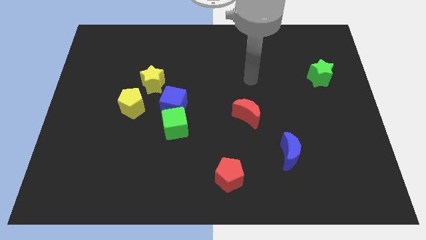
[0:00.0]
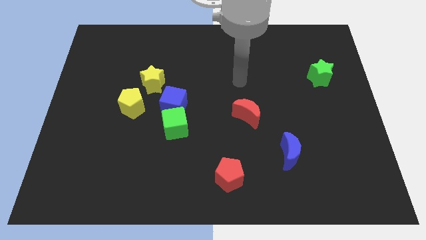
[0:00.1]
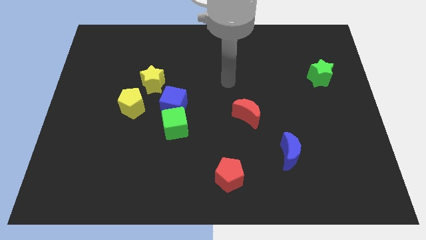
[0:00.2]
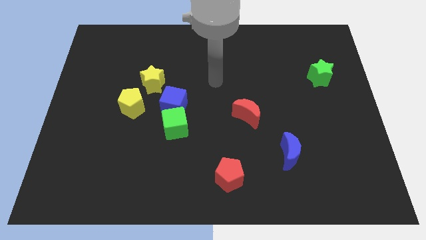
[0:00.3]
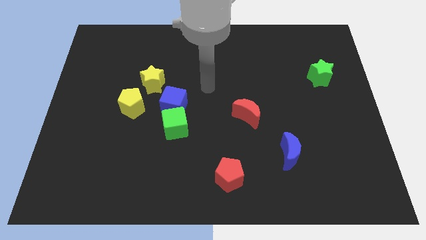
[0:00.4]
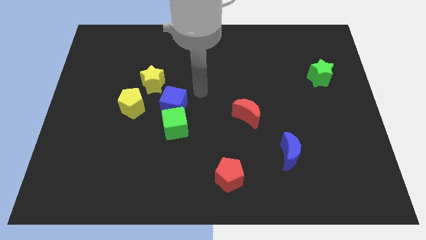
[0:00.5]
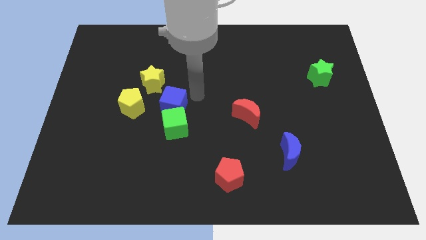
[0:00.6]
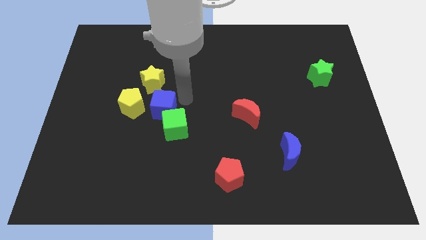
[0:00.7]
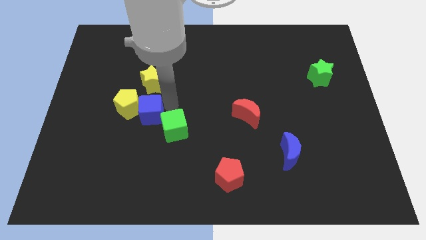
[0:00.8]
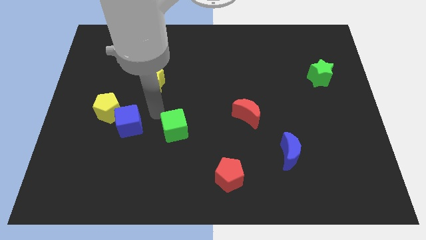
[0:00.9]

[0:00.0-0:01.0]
pull the green cube apart from the blue cube

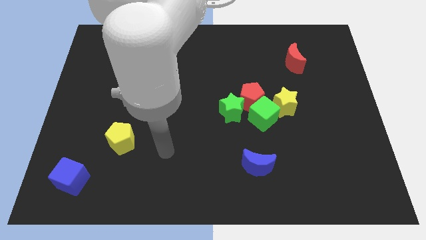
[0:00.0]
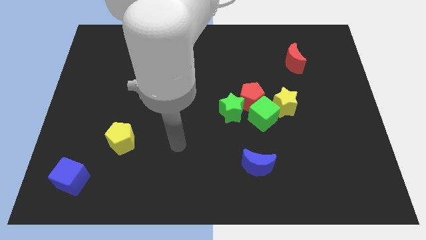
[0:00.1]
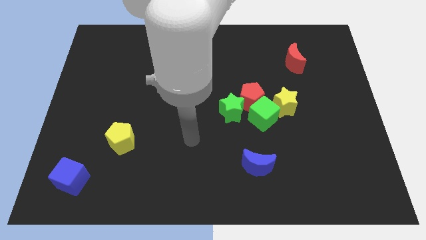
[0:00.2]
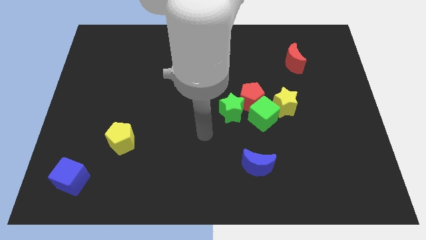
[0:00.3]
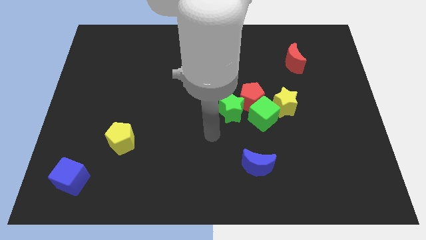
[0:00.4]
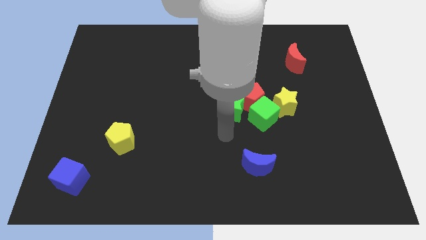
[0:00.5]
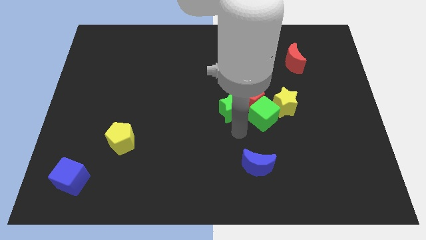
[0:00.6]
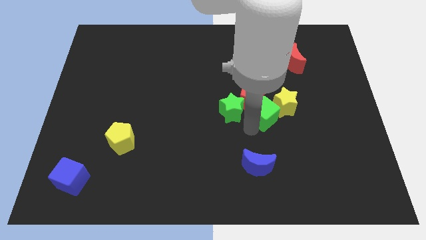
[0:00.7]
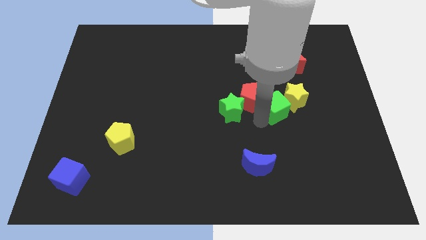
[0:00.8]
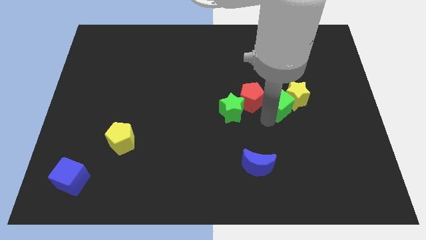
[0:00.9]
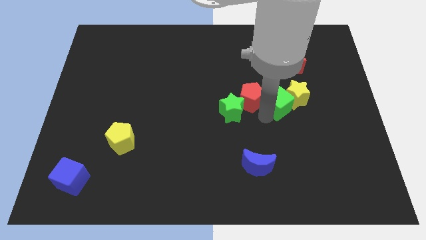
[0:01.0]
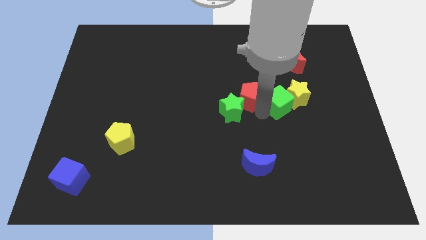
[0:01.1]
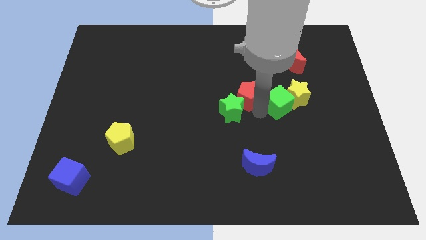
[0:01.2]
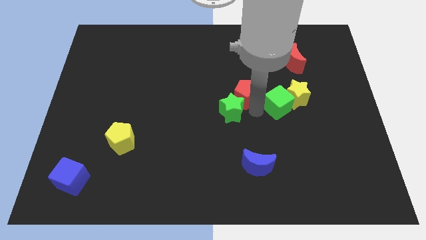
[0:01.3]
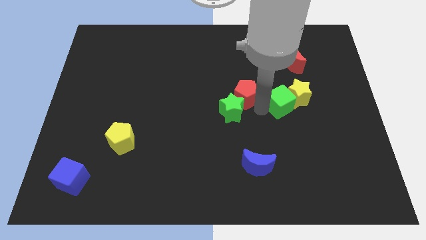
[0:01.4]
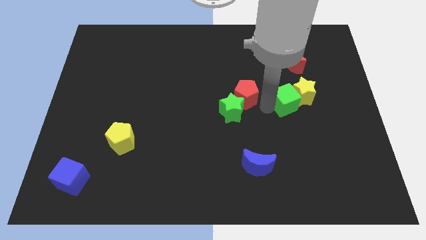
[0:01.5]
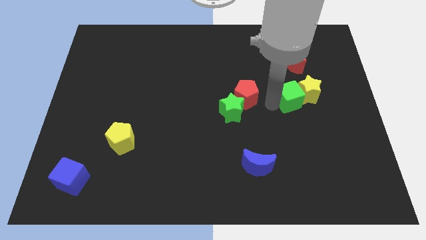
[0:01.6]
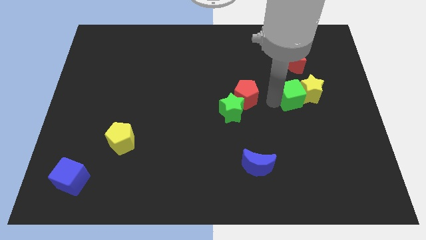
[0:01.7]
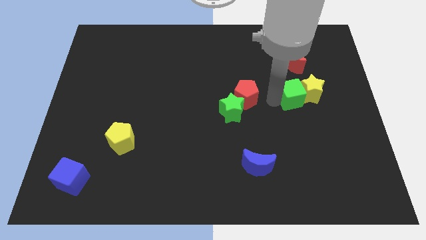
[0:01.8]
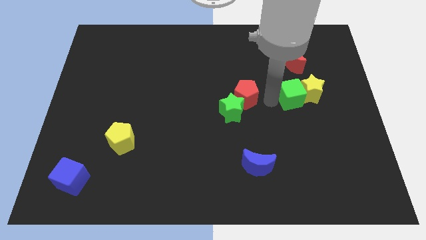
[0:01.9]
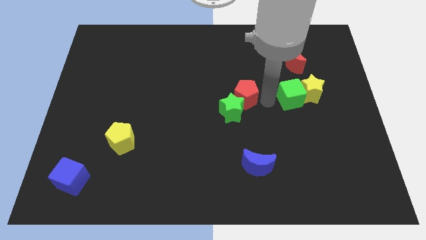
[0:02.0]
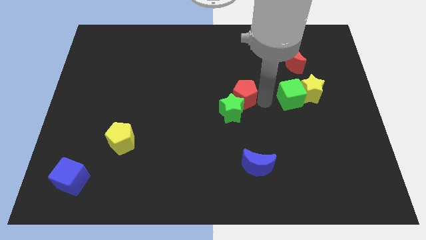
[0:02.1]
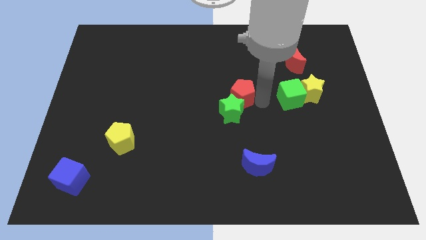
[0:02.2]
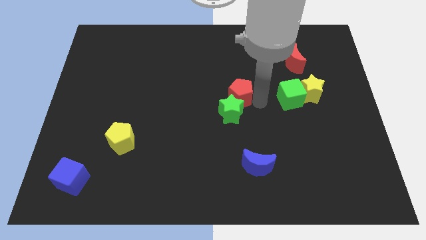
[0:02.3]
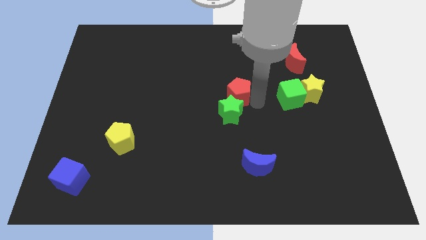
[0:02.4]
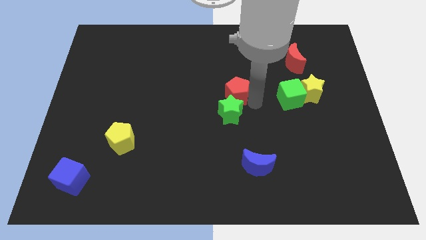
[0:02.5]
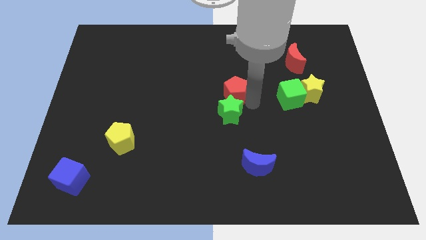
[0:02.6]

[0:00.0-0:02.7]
pull the red pentagon apart from the group of blocks

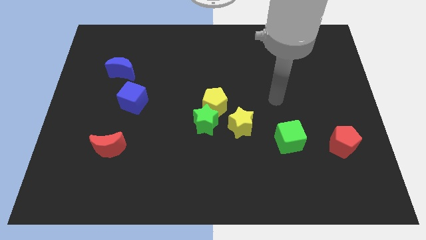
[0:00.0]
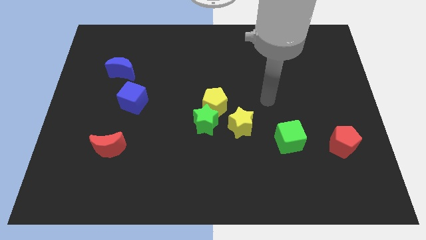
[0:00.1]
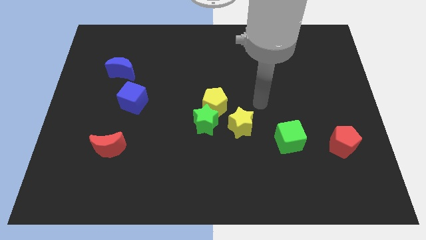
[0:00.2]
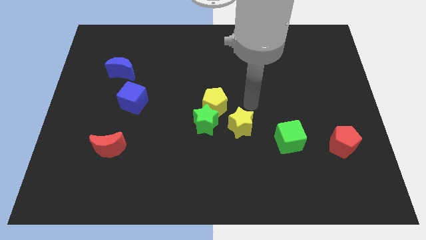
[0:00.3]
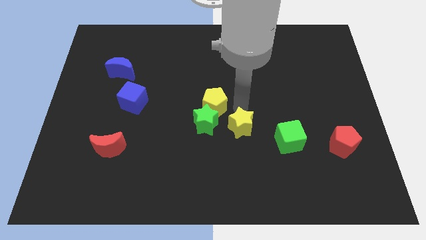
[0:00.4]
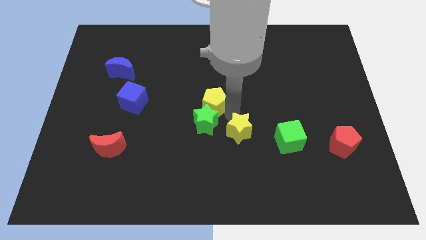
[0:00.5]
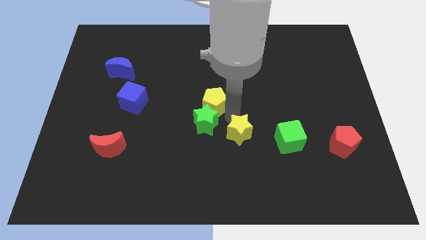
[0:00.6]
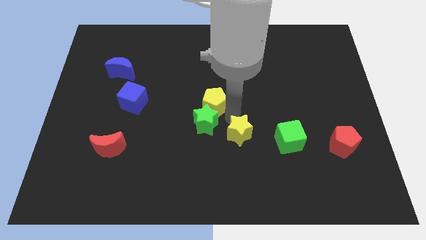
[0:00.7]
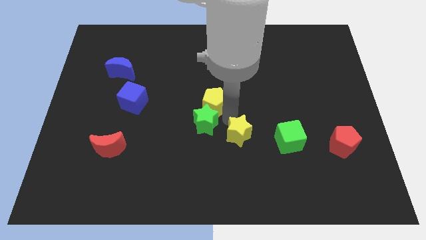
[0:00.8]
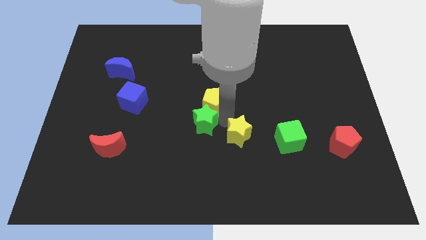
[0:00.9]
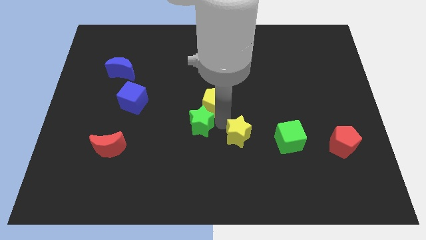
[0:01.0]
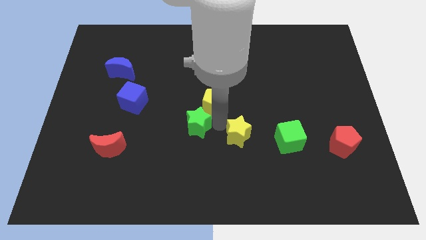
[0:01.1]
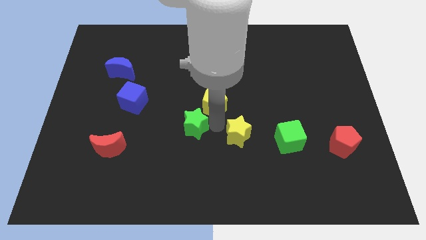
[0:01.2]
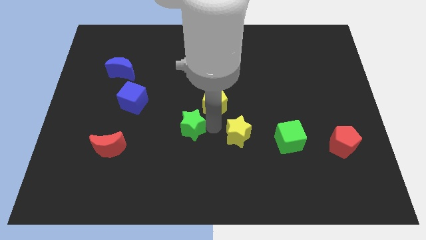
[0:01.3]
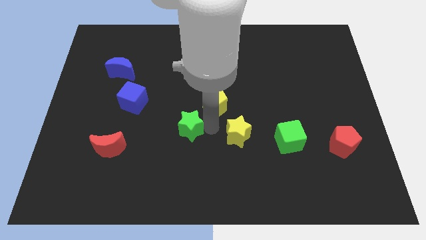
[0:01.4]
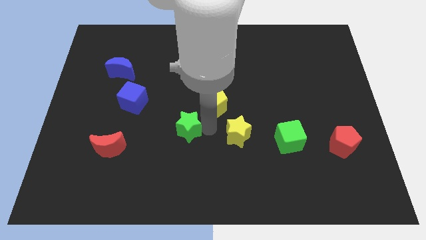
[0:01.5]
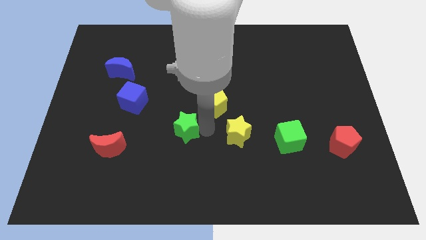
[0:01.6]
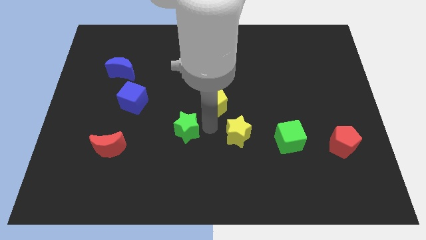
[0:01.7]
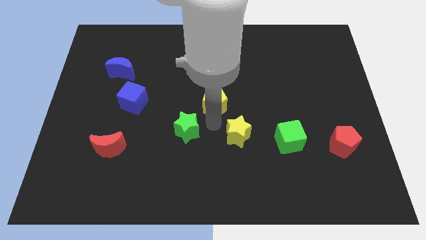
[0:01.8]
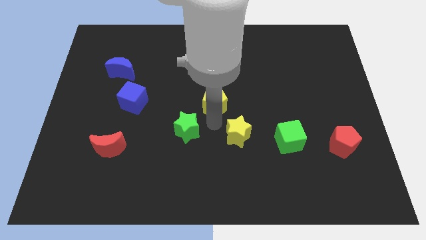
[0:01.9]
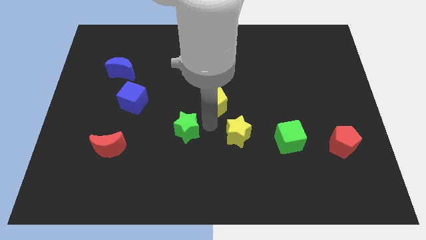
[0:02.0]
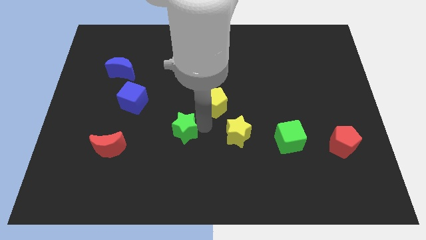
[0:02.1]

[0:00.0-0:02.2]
move the green star away from the yellow pentagon and yellow star

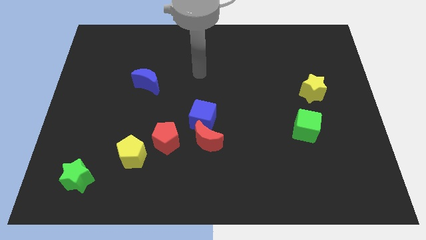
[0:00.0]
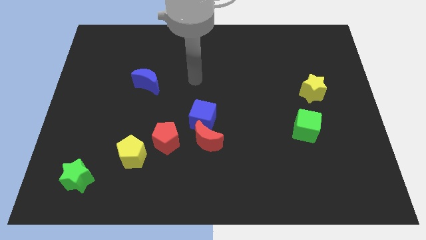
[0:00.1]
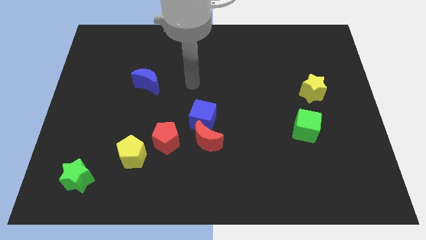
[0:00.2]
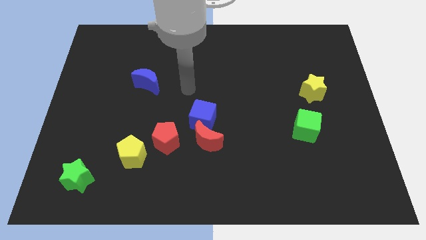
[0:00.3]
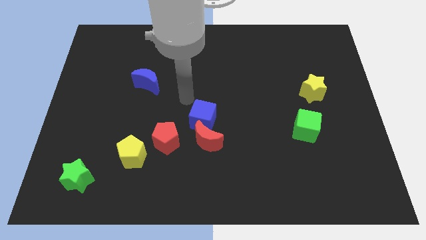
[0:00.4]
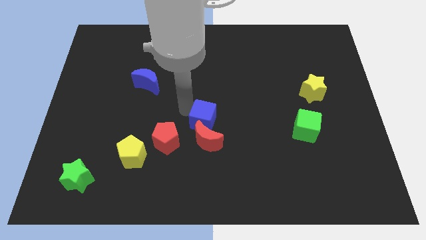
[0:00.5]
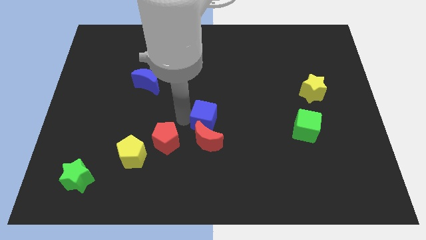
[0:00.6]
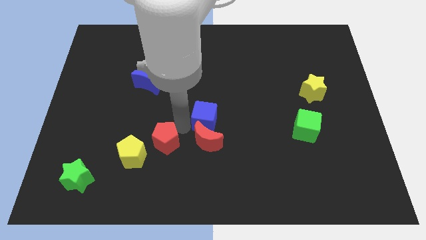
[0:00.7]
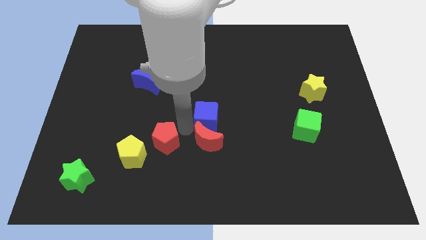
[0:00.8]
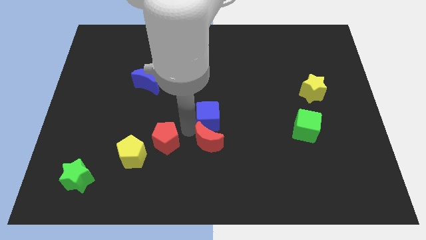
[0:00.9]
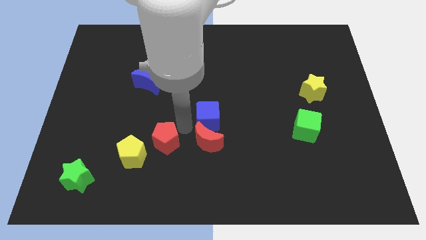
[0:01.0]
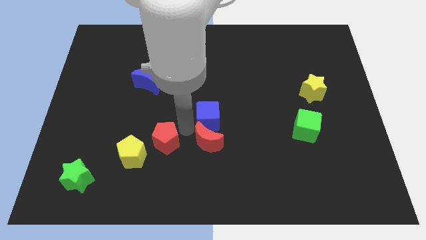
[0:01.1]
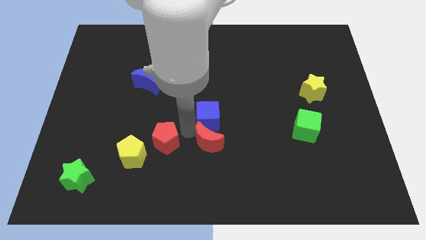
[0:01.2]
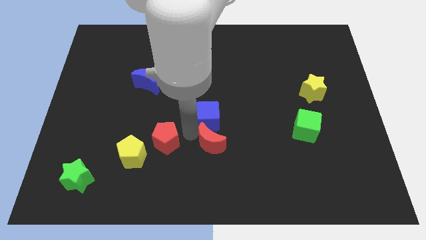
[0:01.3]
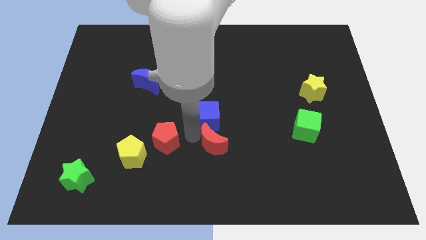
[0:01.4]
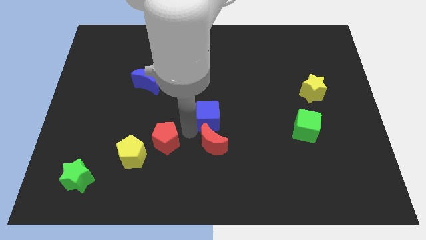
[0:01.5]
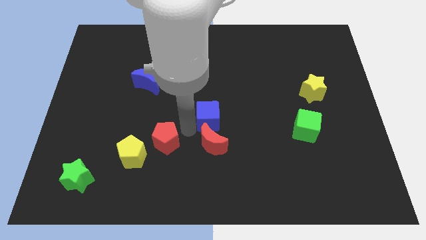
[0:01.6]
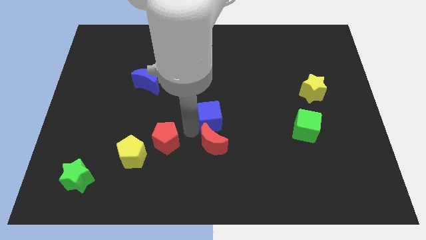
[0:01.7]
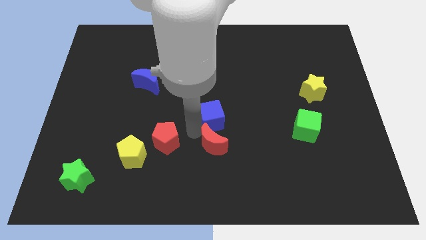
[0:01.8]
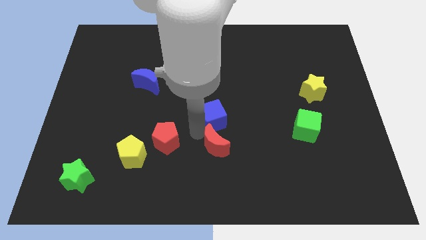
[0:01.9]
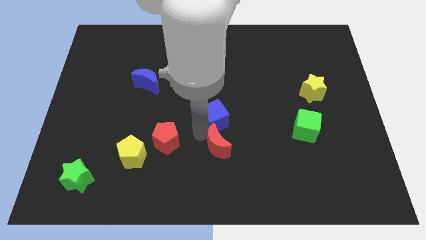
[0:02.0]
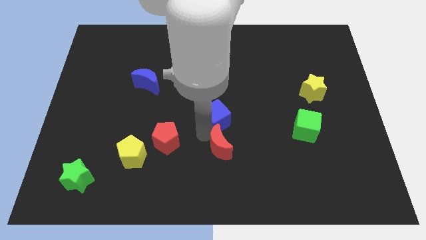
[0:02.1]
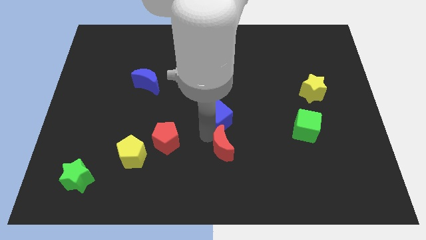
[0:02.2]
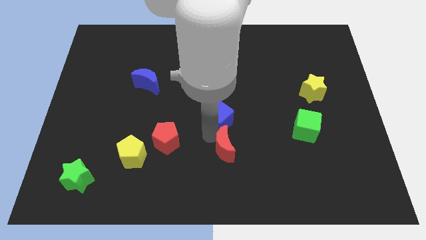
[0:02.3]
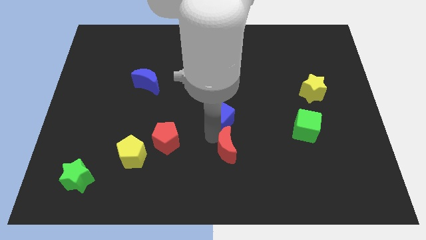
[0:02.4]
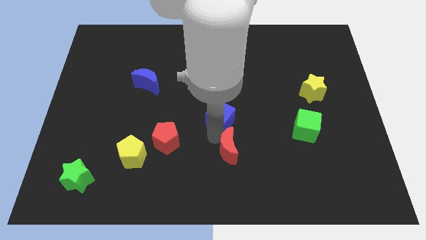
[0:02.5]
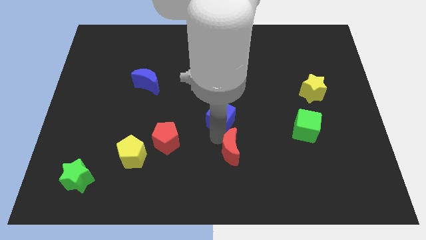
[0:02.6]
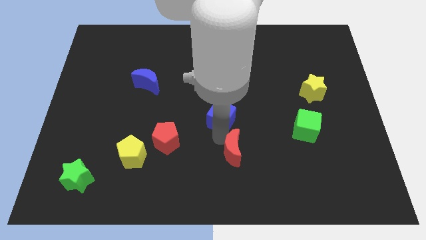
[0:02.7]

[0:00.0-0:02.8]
separate the red moon from the blue cube and red pentagon

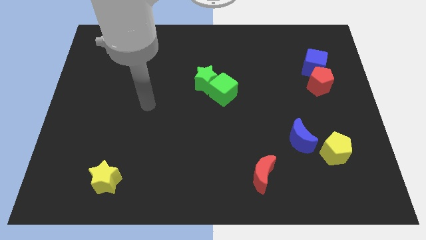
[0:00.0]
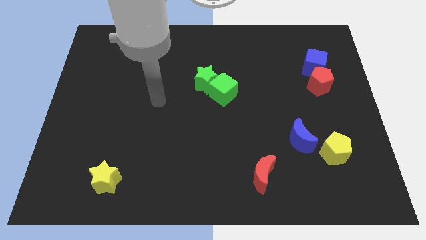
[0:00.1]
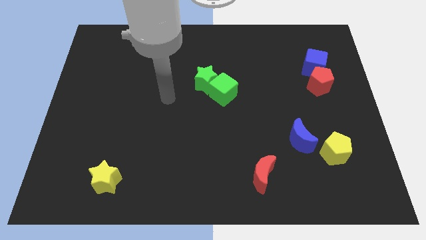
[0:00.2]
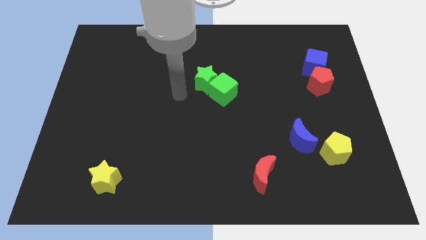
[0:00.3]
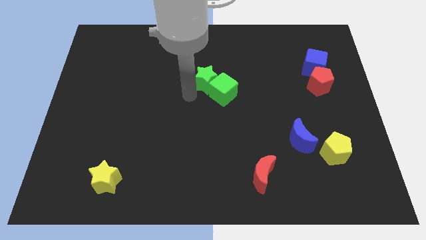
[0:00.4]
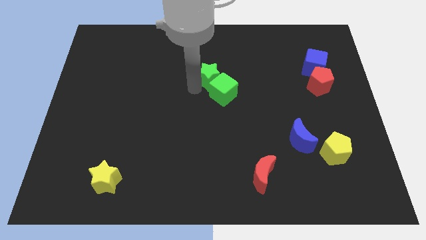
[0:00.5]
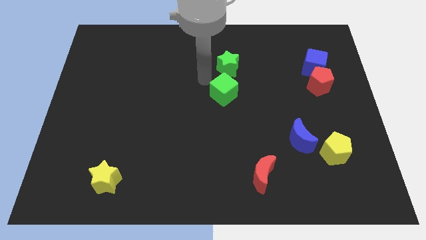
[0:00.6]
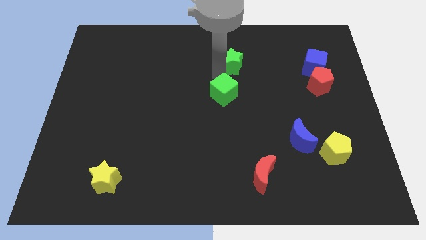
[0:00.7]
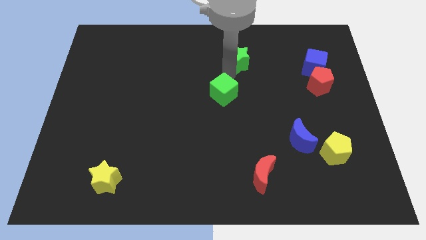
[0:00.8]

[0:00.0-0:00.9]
separate the green cube from the green star
